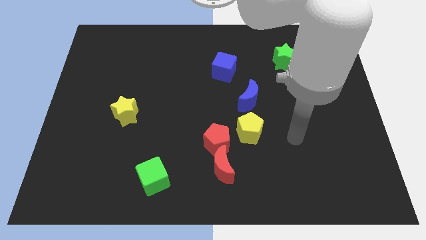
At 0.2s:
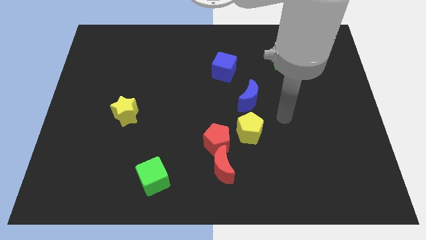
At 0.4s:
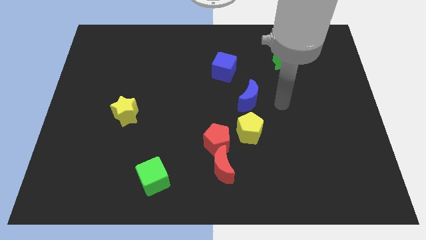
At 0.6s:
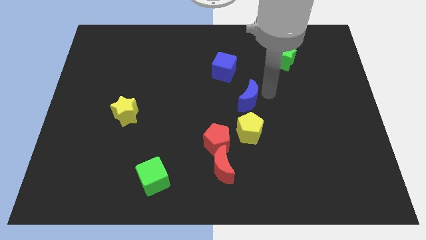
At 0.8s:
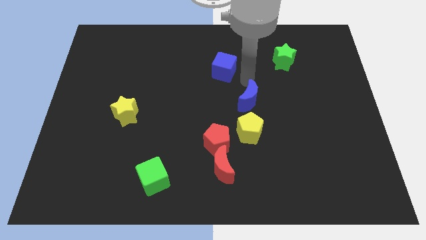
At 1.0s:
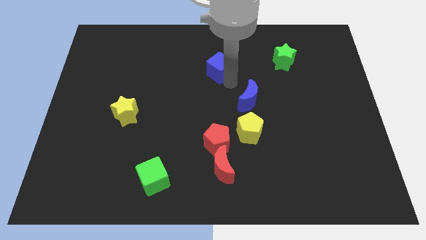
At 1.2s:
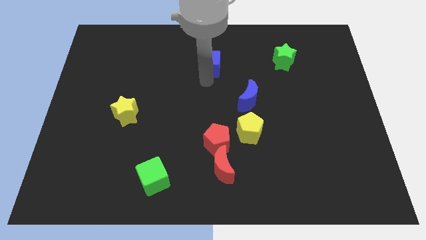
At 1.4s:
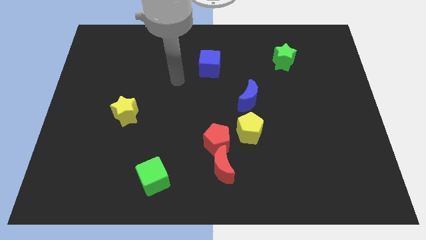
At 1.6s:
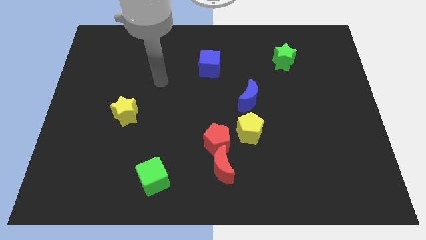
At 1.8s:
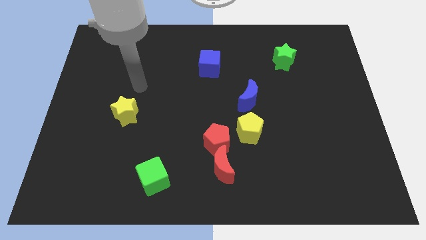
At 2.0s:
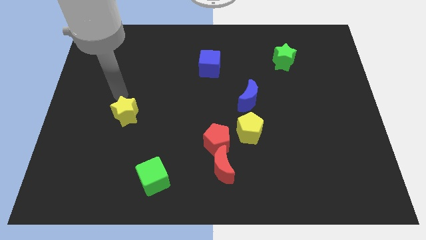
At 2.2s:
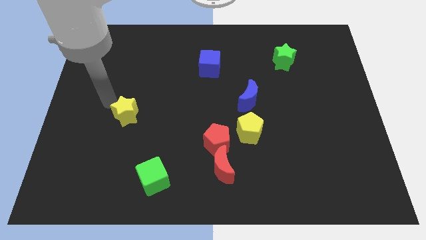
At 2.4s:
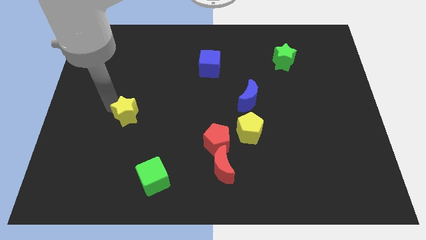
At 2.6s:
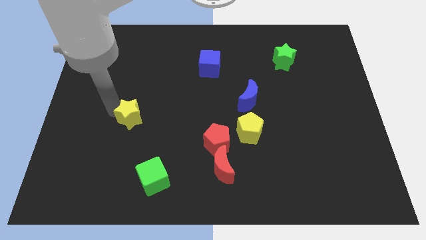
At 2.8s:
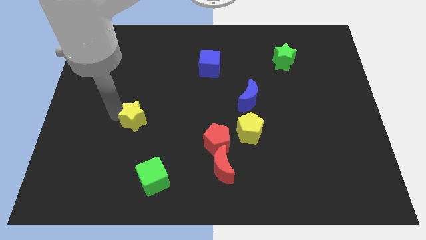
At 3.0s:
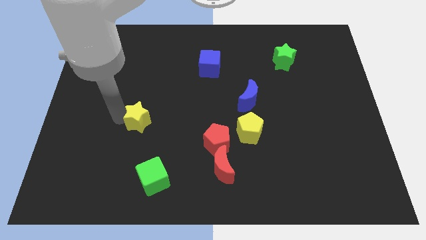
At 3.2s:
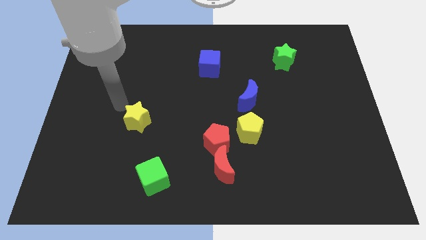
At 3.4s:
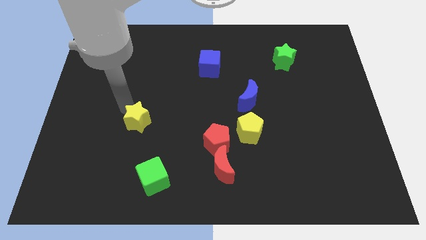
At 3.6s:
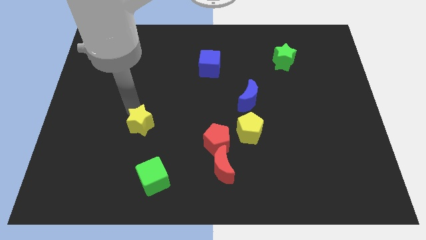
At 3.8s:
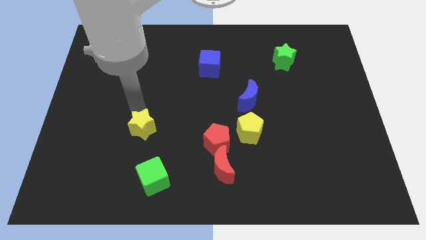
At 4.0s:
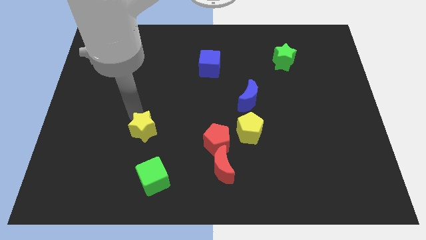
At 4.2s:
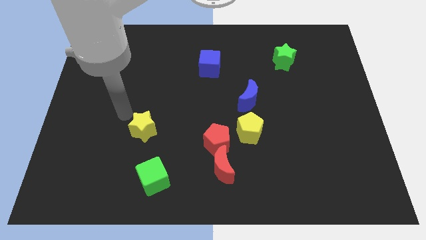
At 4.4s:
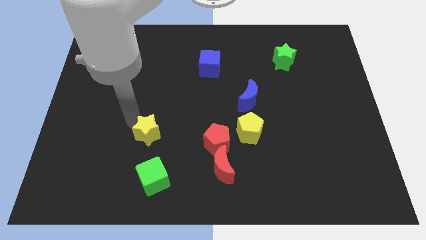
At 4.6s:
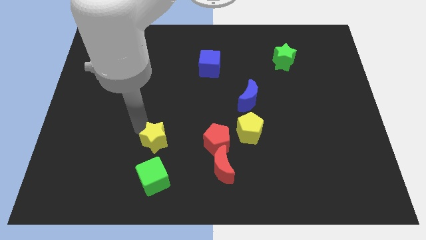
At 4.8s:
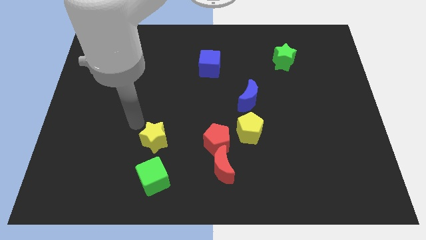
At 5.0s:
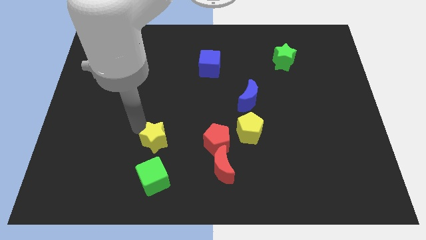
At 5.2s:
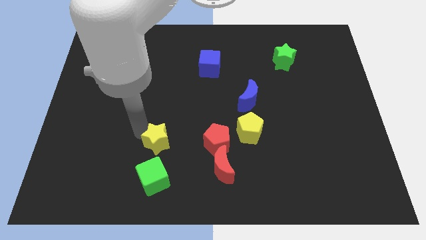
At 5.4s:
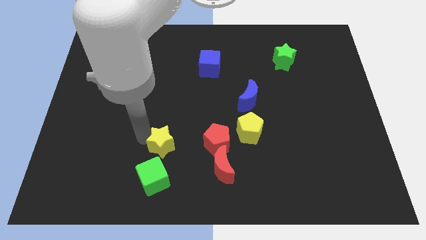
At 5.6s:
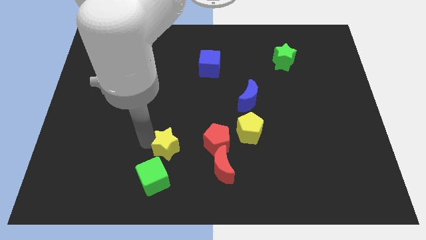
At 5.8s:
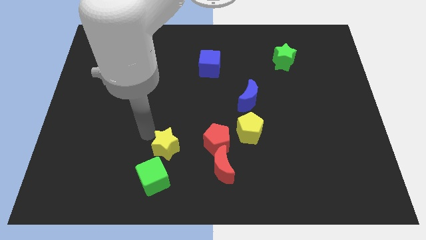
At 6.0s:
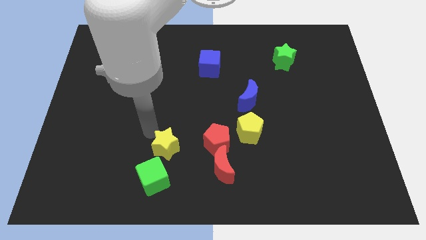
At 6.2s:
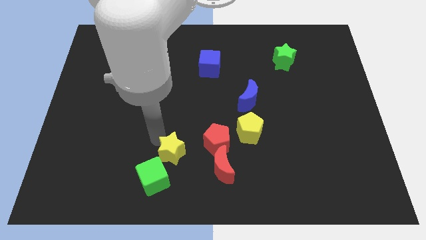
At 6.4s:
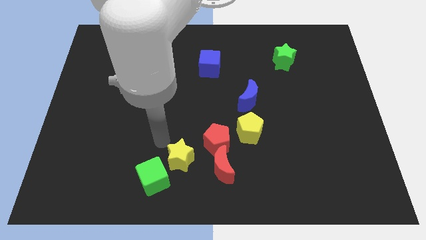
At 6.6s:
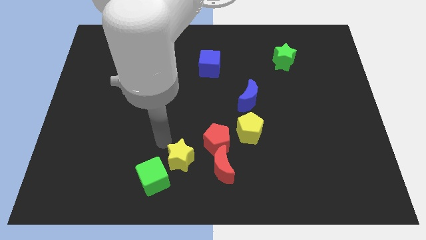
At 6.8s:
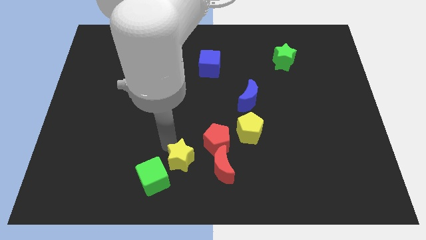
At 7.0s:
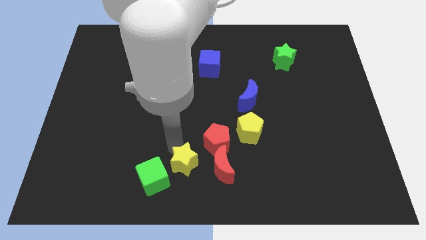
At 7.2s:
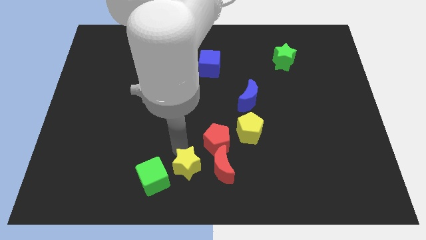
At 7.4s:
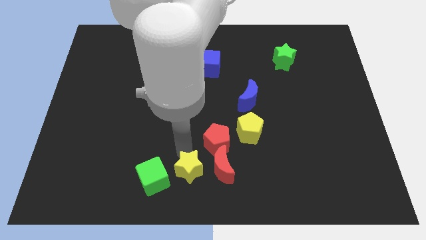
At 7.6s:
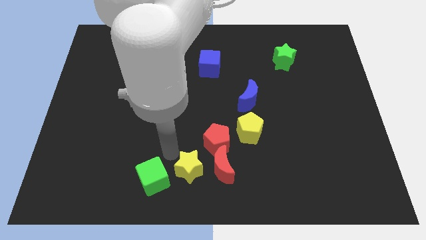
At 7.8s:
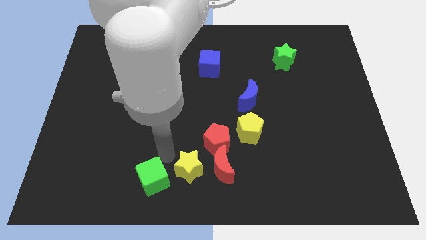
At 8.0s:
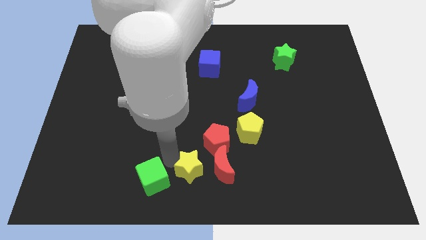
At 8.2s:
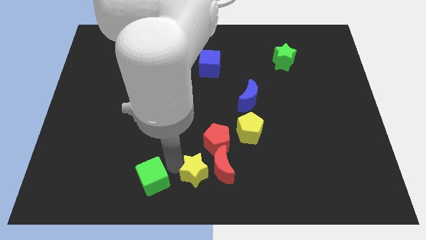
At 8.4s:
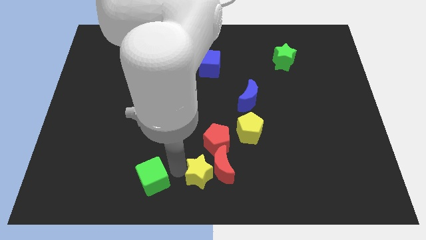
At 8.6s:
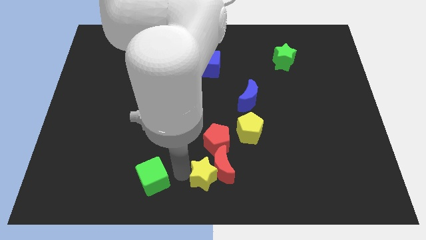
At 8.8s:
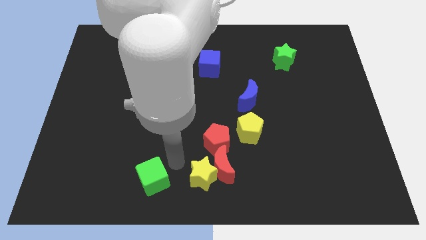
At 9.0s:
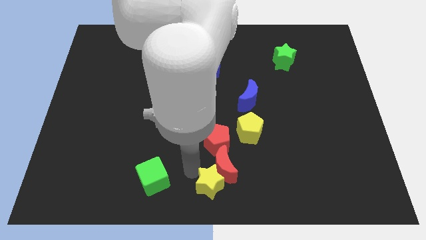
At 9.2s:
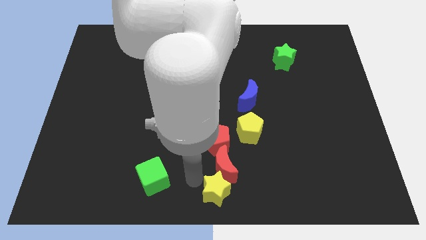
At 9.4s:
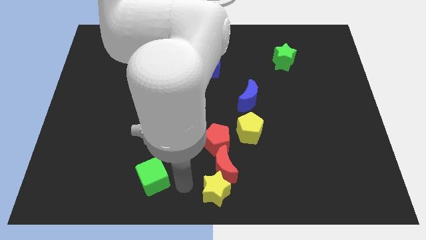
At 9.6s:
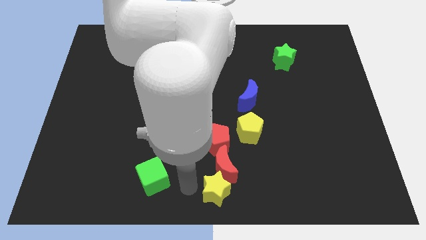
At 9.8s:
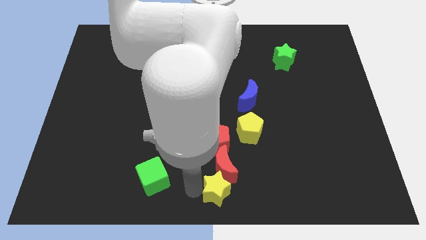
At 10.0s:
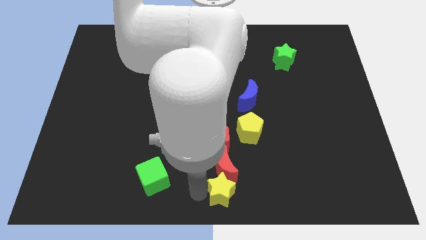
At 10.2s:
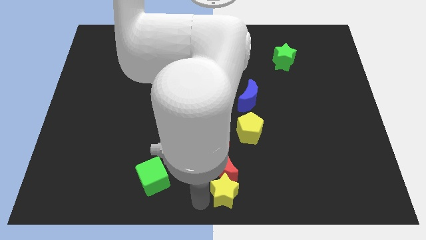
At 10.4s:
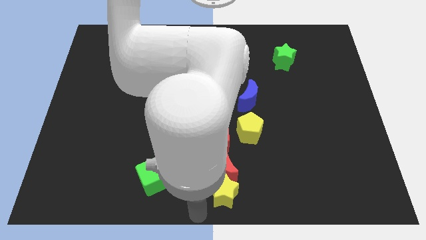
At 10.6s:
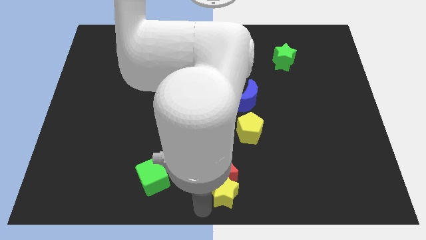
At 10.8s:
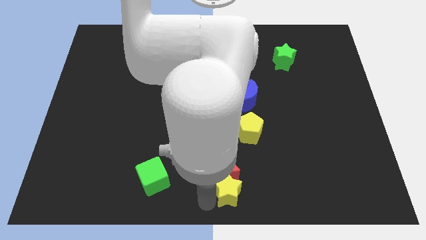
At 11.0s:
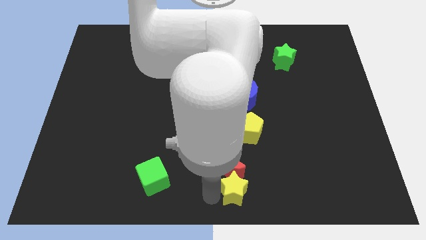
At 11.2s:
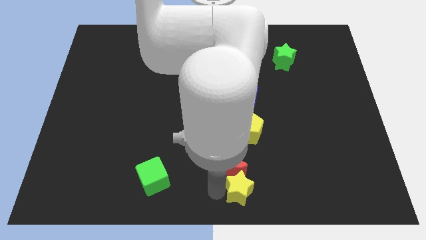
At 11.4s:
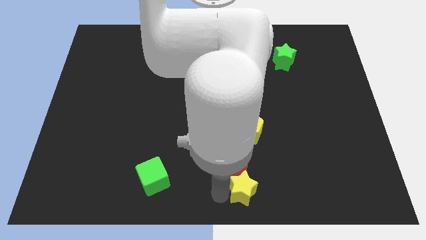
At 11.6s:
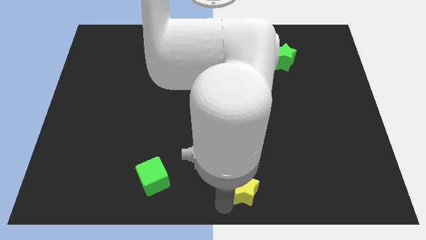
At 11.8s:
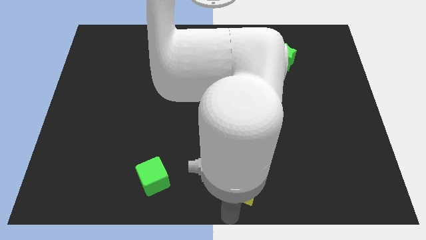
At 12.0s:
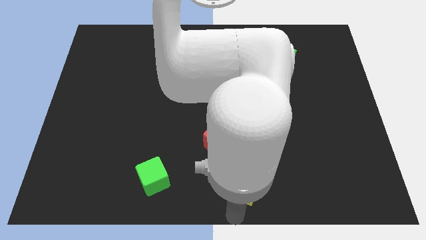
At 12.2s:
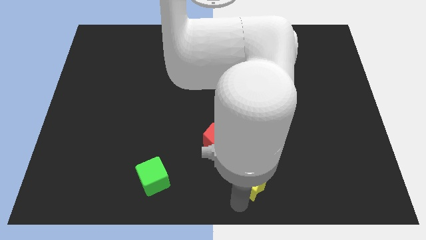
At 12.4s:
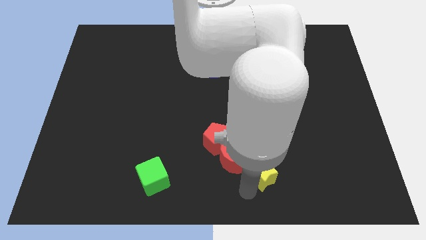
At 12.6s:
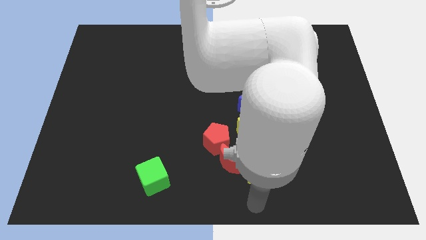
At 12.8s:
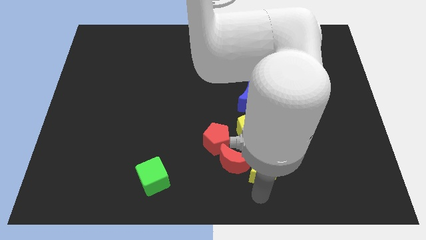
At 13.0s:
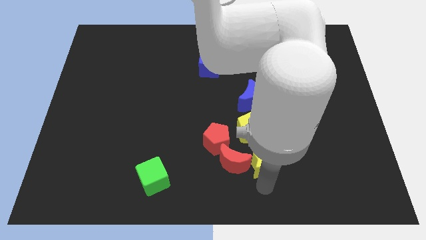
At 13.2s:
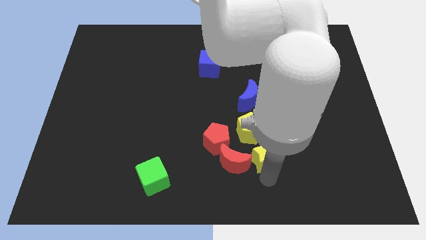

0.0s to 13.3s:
slide the yellow star right

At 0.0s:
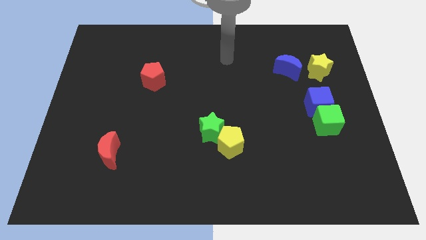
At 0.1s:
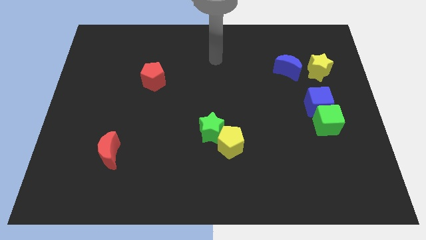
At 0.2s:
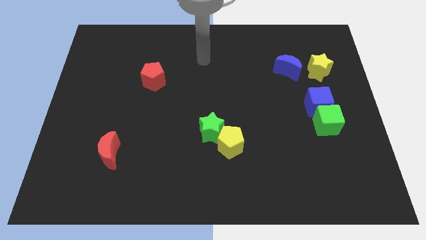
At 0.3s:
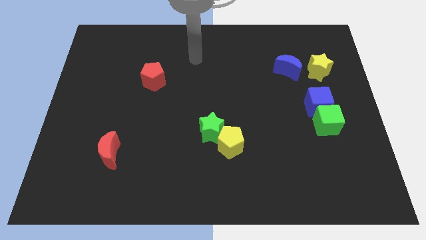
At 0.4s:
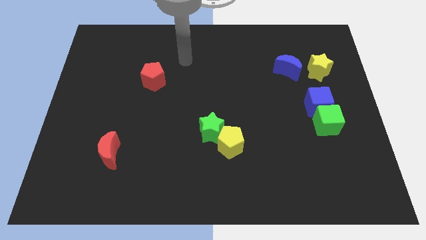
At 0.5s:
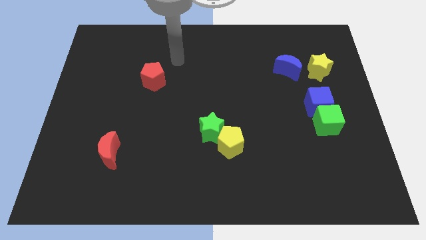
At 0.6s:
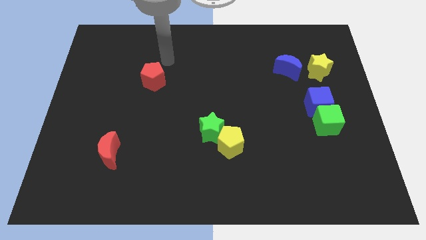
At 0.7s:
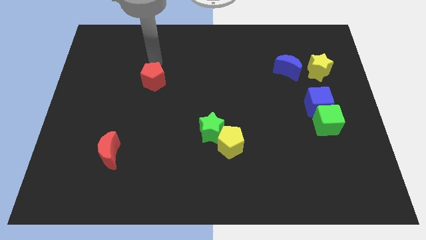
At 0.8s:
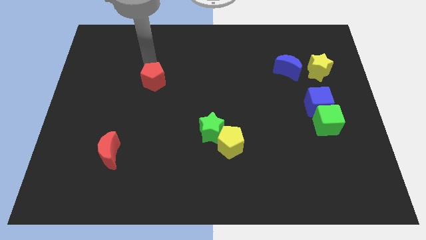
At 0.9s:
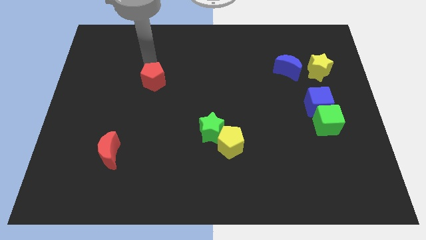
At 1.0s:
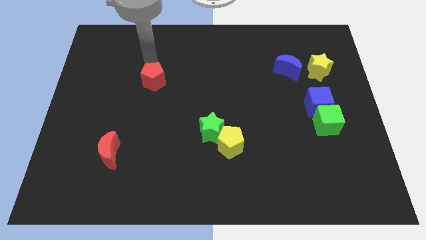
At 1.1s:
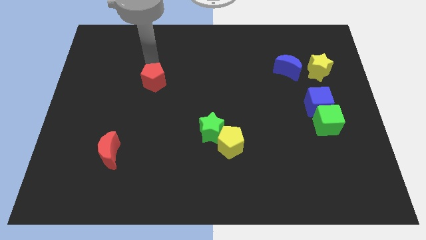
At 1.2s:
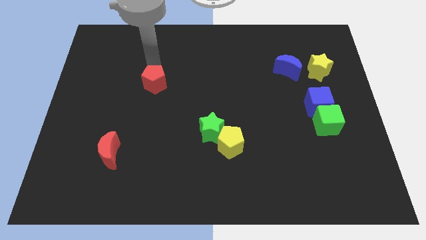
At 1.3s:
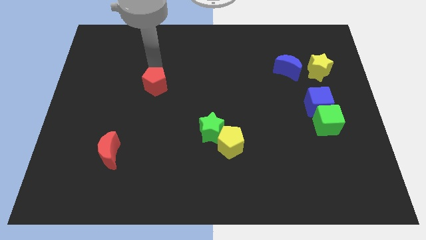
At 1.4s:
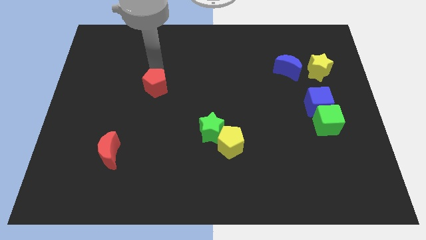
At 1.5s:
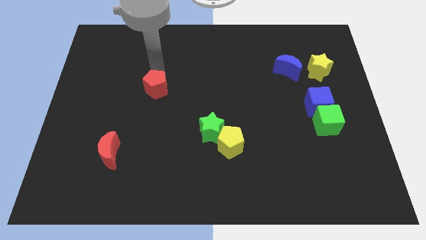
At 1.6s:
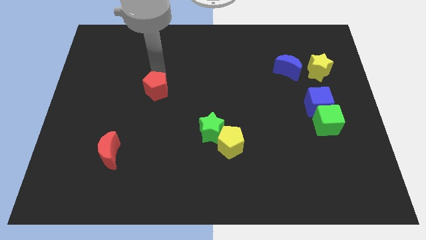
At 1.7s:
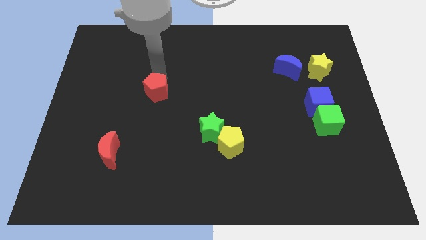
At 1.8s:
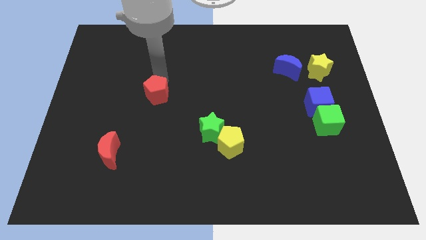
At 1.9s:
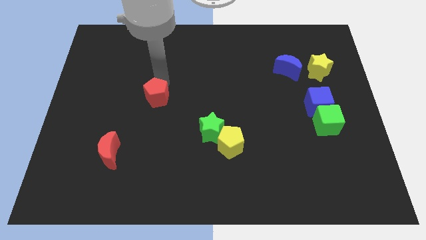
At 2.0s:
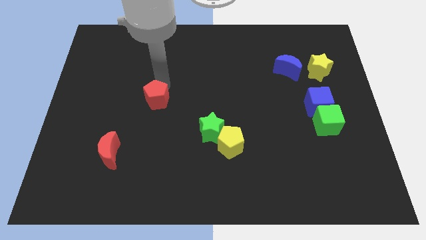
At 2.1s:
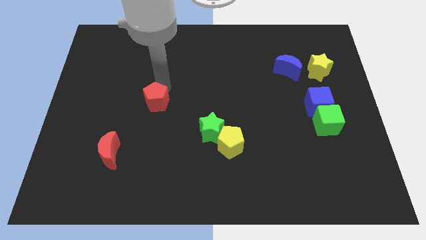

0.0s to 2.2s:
move the red pentagon downwards slightly
